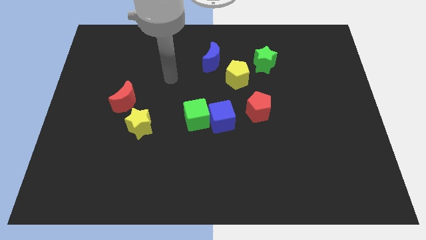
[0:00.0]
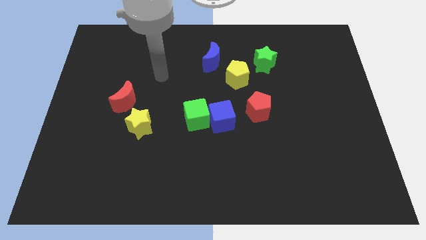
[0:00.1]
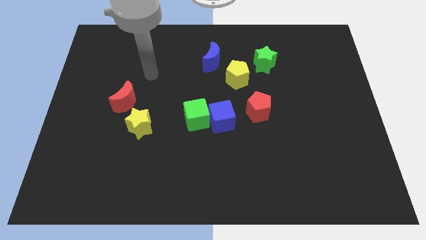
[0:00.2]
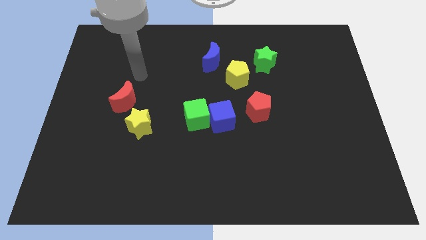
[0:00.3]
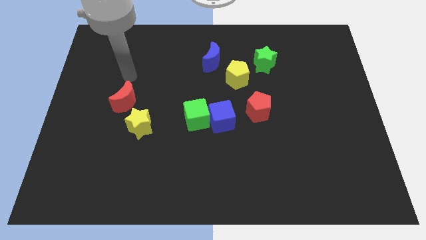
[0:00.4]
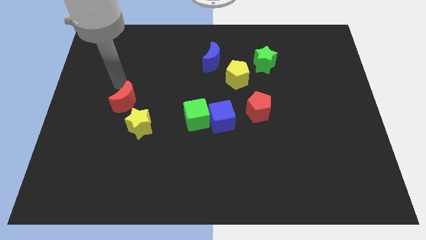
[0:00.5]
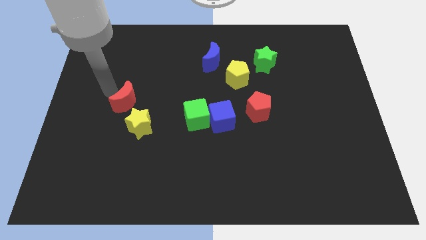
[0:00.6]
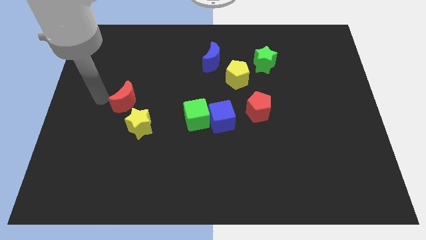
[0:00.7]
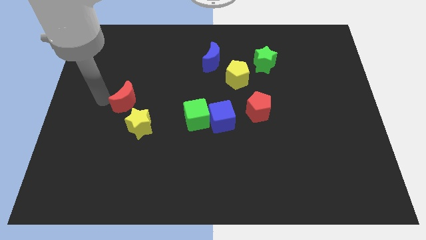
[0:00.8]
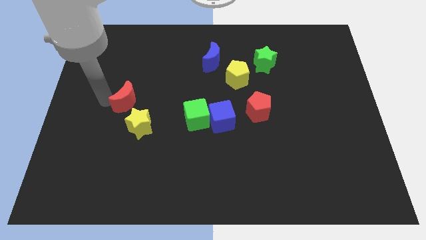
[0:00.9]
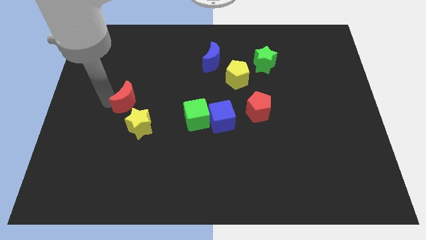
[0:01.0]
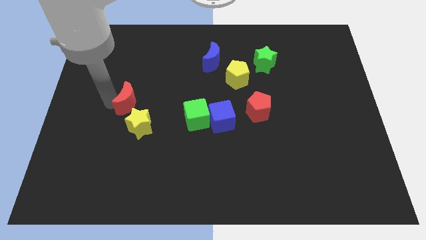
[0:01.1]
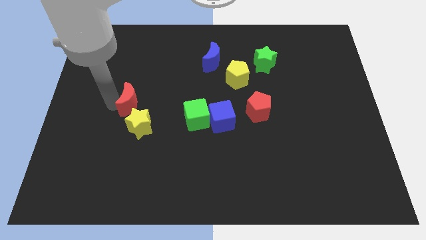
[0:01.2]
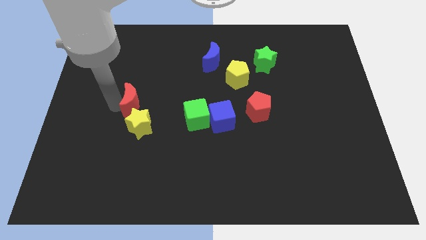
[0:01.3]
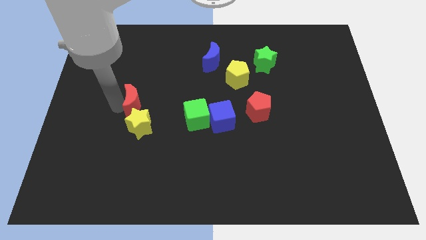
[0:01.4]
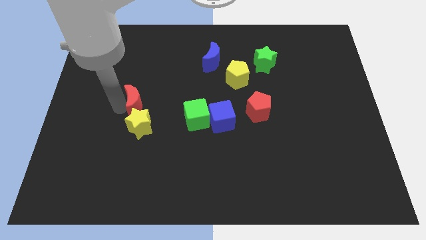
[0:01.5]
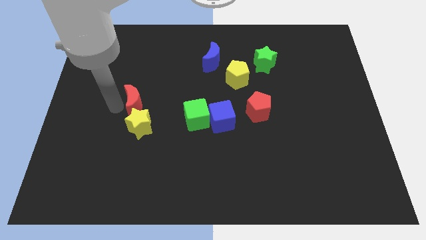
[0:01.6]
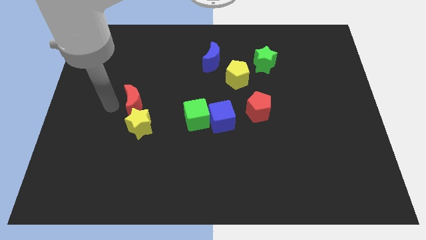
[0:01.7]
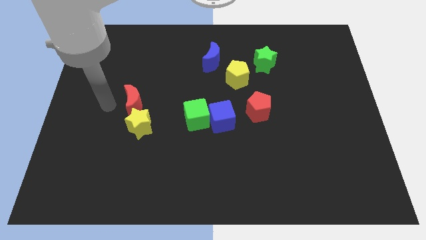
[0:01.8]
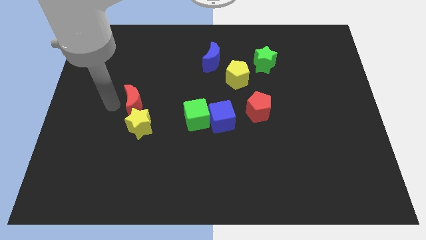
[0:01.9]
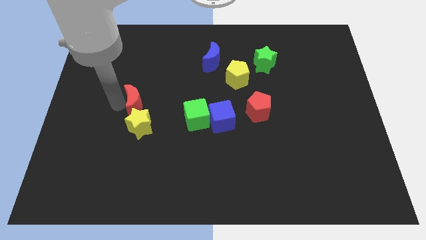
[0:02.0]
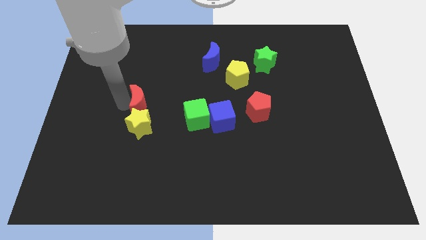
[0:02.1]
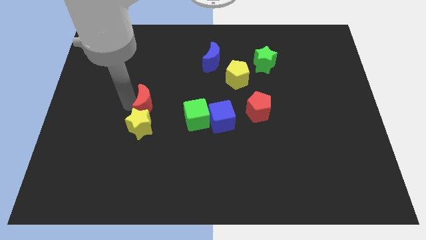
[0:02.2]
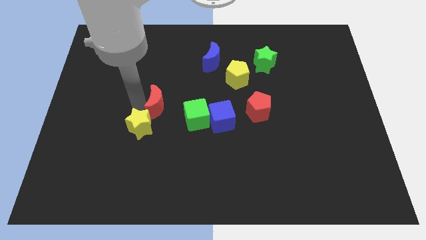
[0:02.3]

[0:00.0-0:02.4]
move the red moon a little bit to the right

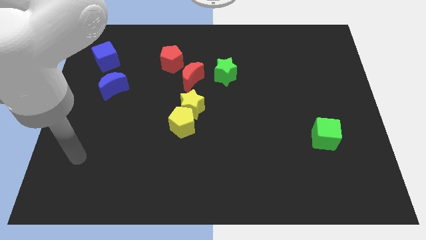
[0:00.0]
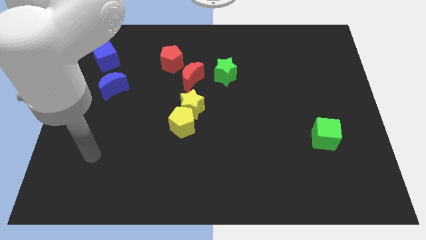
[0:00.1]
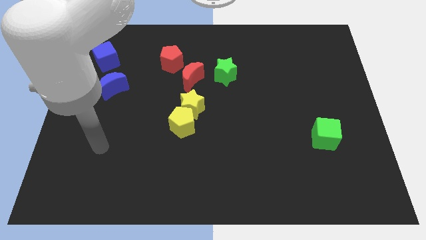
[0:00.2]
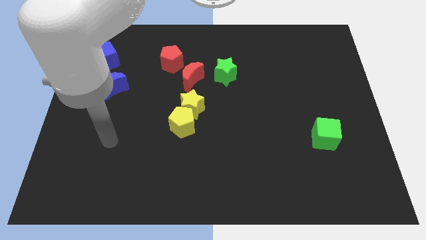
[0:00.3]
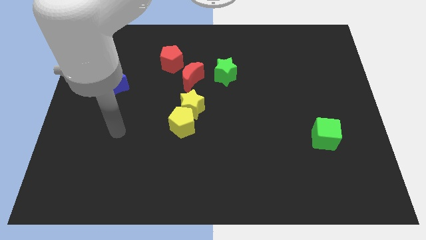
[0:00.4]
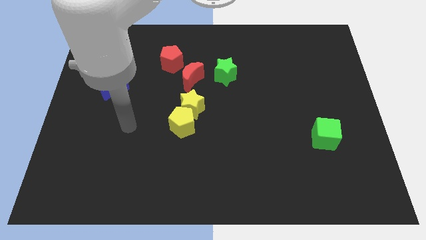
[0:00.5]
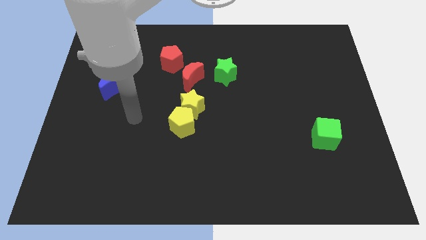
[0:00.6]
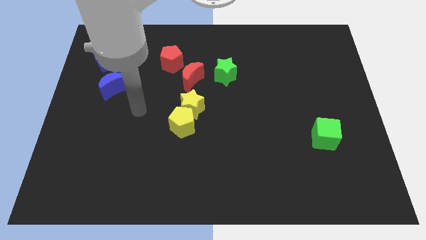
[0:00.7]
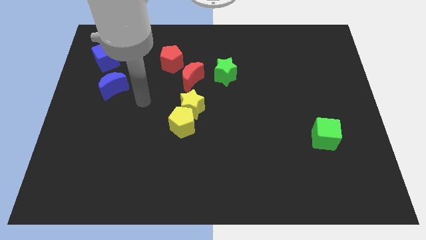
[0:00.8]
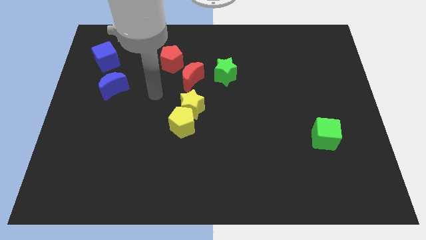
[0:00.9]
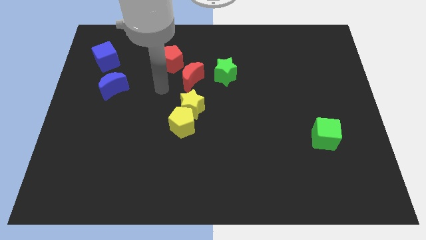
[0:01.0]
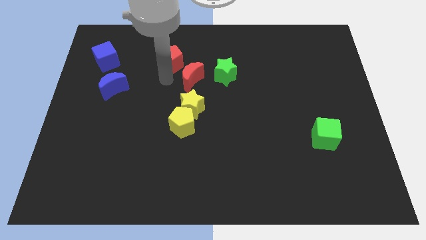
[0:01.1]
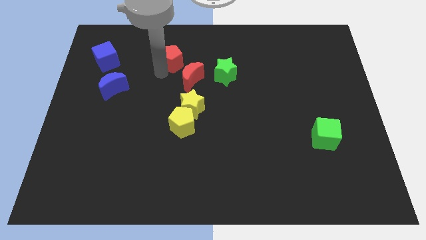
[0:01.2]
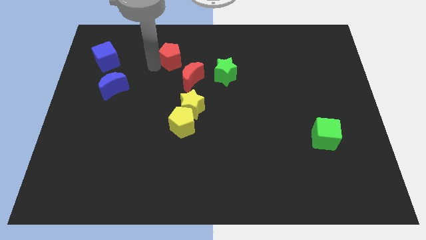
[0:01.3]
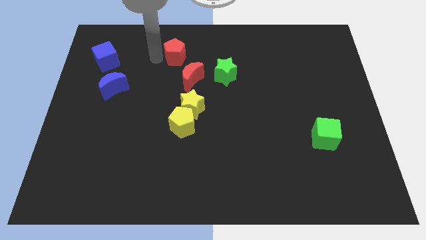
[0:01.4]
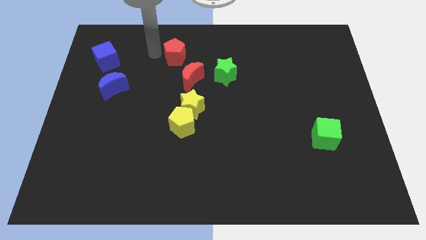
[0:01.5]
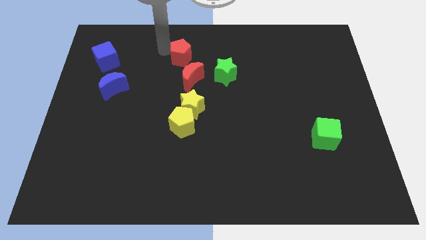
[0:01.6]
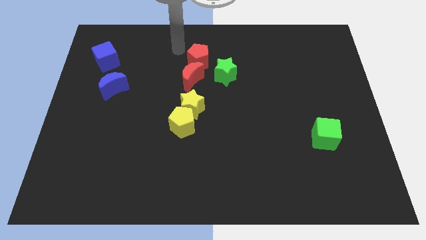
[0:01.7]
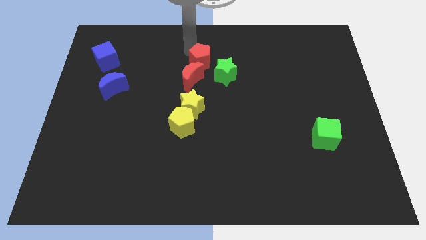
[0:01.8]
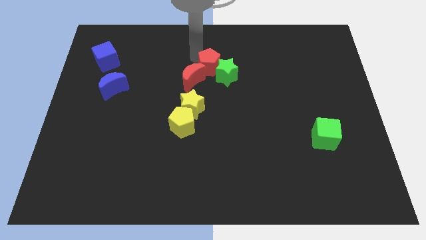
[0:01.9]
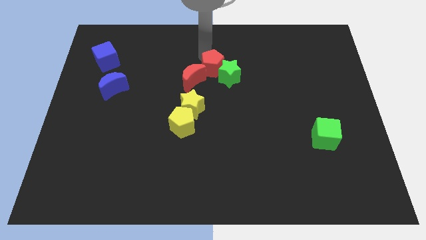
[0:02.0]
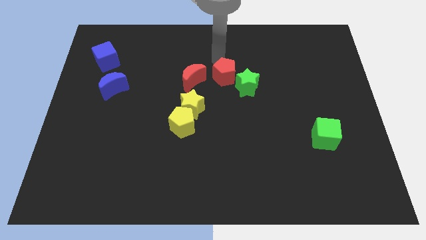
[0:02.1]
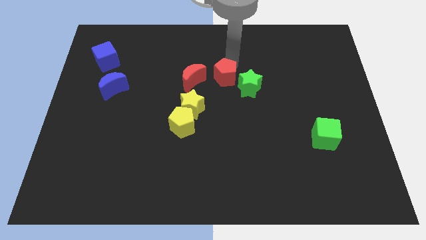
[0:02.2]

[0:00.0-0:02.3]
move the green star a bit diagonally downwards and right

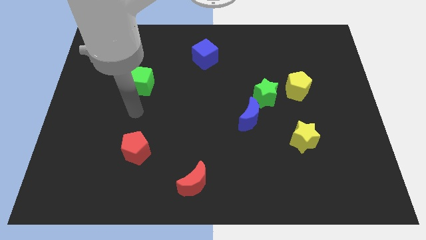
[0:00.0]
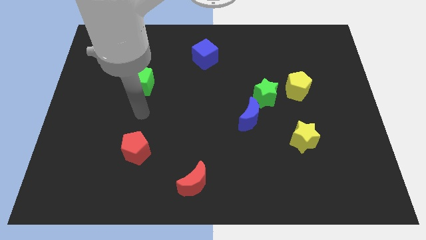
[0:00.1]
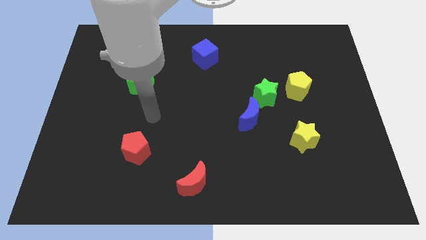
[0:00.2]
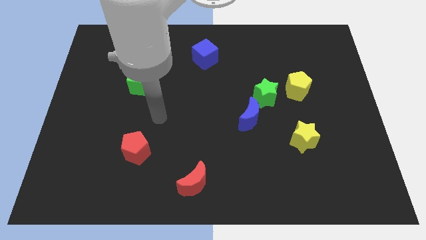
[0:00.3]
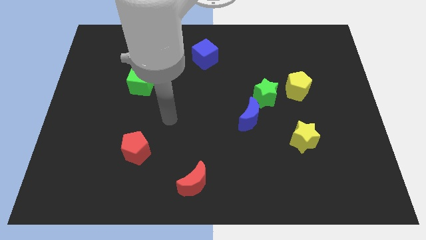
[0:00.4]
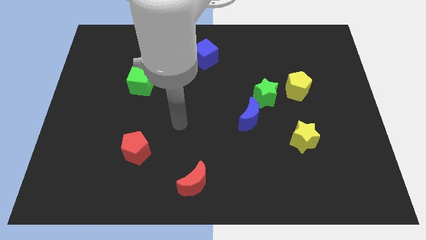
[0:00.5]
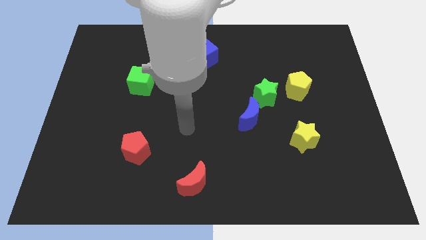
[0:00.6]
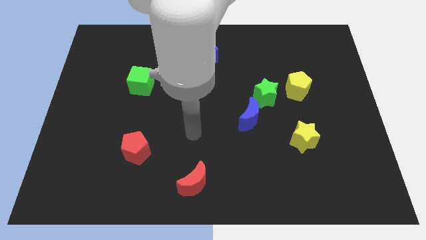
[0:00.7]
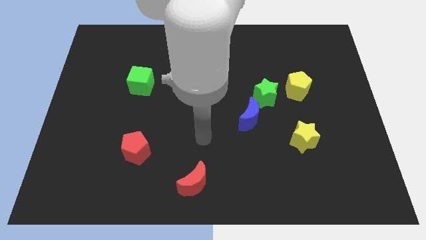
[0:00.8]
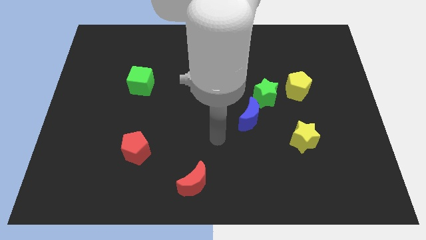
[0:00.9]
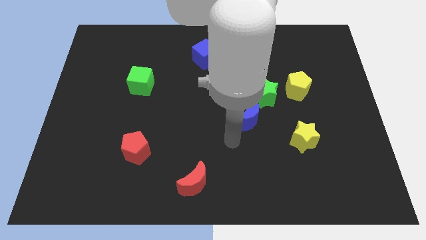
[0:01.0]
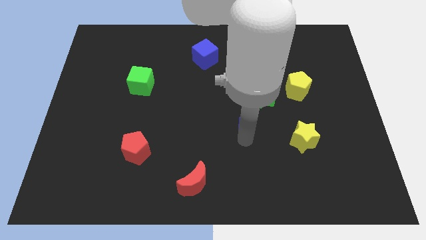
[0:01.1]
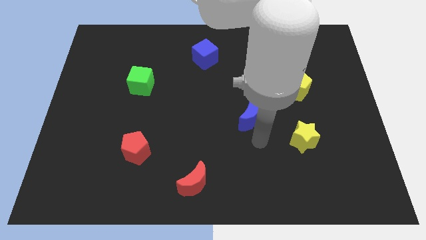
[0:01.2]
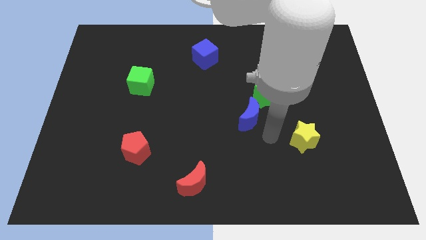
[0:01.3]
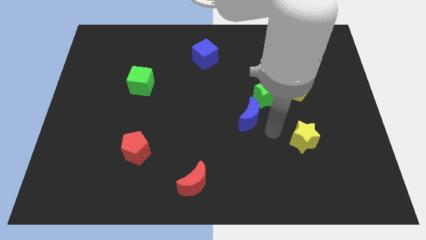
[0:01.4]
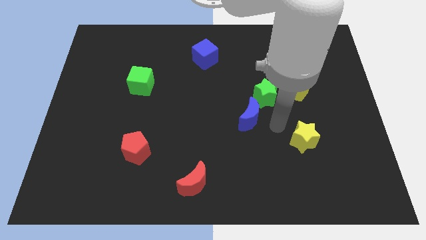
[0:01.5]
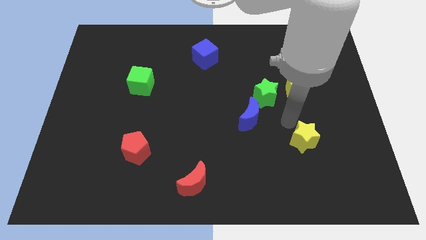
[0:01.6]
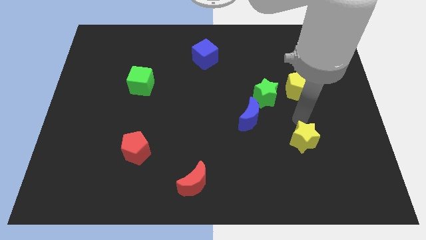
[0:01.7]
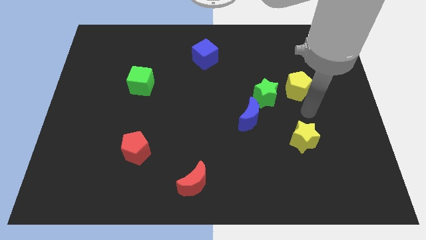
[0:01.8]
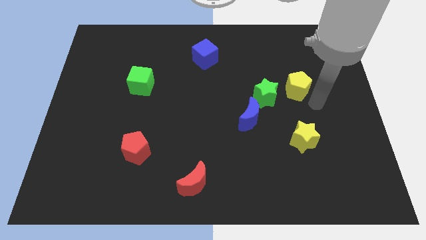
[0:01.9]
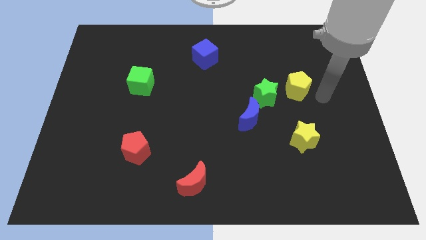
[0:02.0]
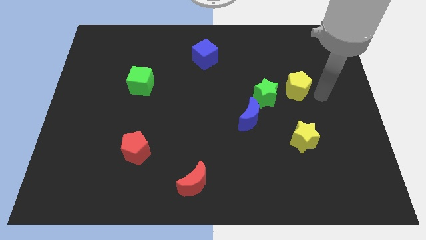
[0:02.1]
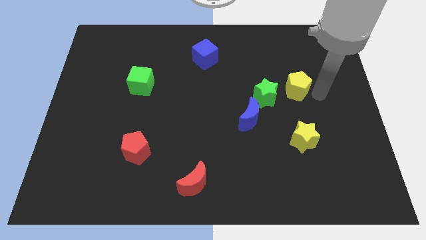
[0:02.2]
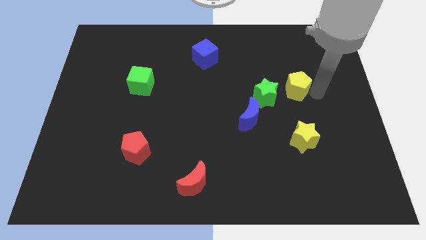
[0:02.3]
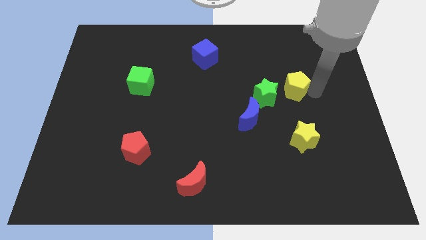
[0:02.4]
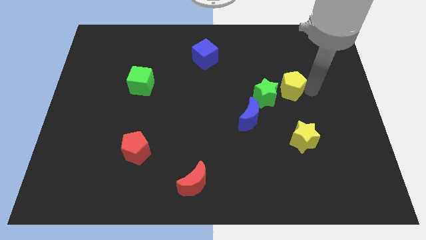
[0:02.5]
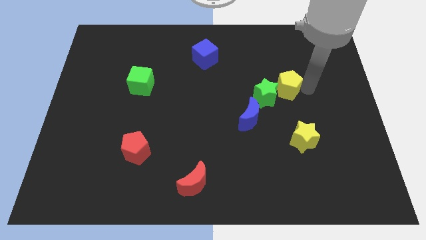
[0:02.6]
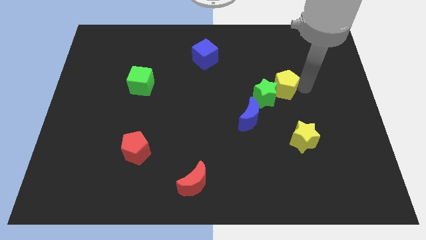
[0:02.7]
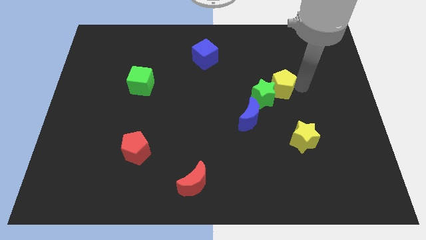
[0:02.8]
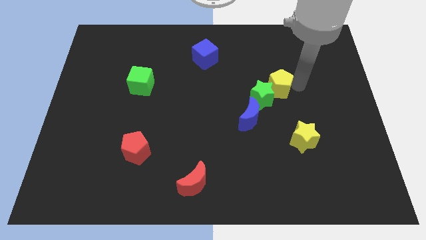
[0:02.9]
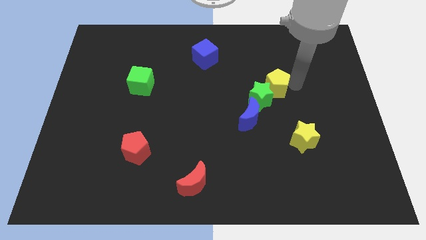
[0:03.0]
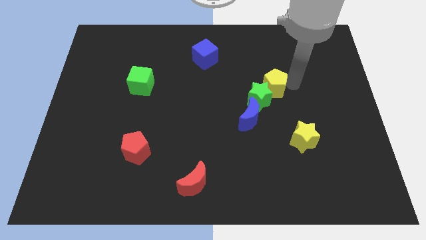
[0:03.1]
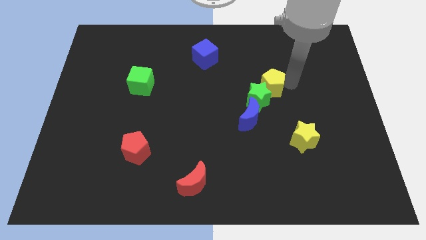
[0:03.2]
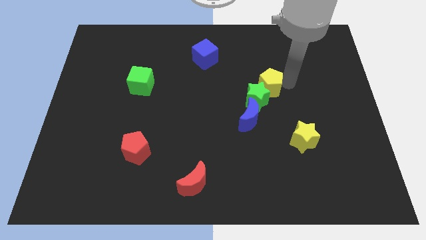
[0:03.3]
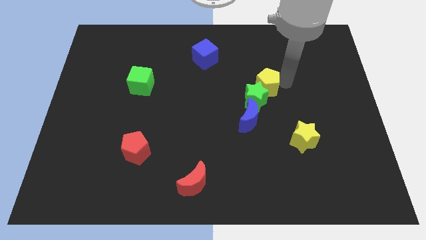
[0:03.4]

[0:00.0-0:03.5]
push the yellow pentagon left a little
